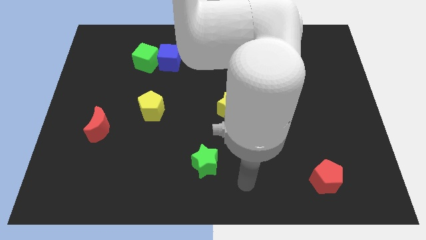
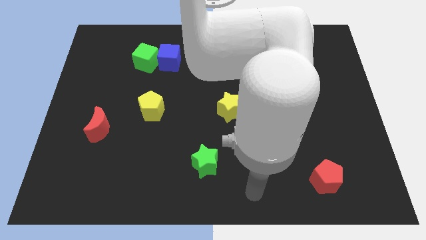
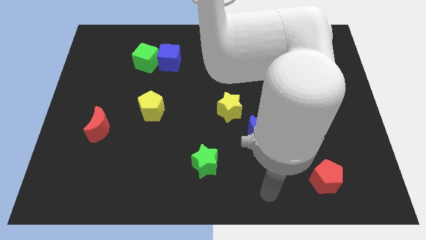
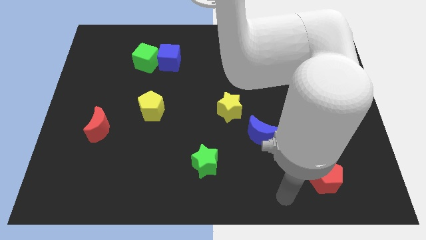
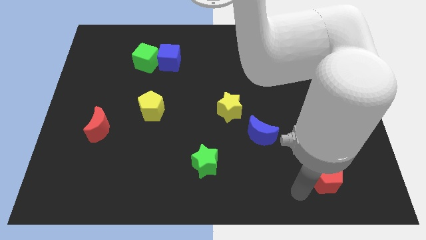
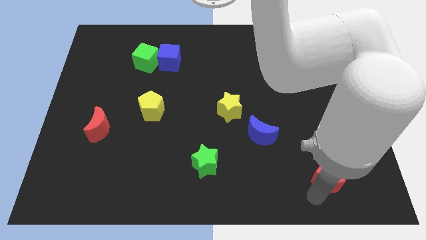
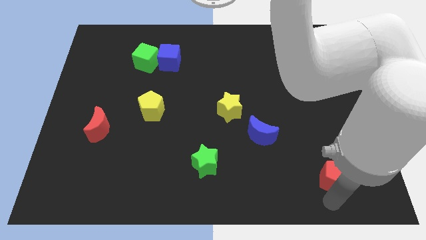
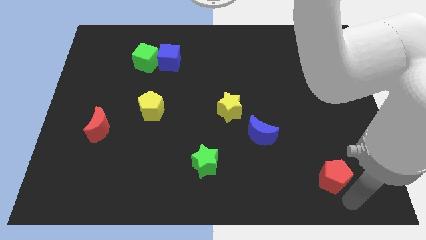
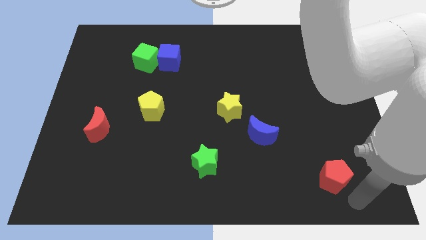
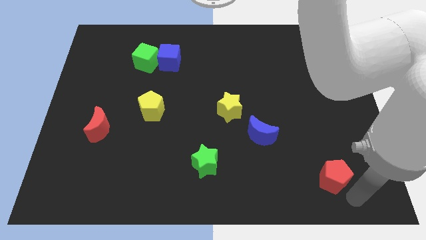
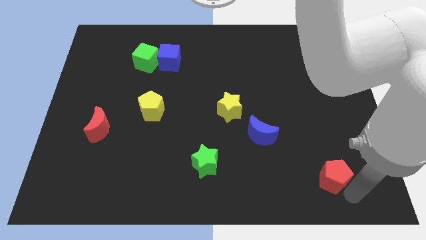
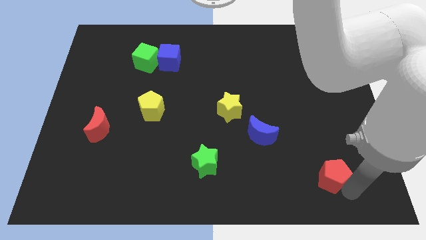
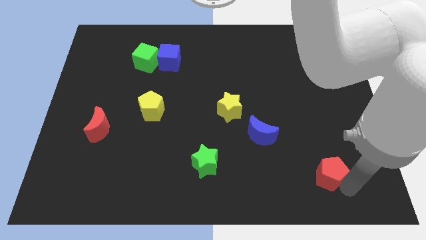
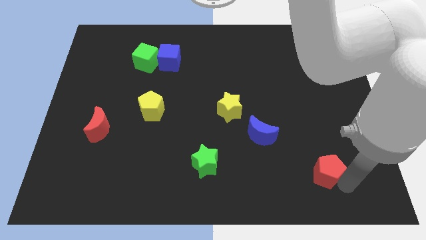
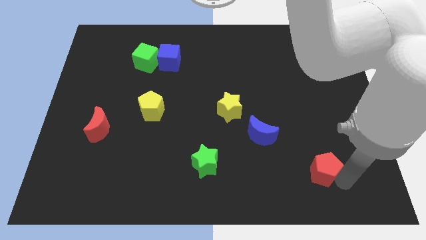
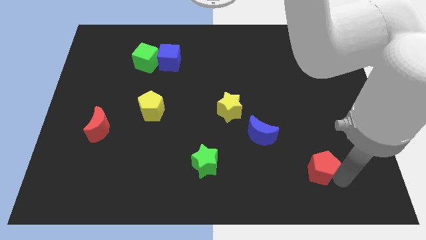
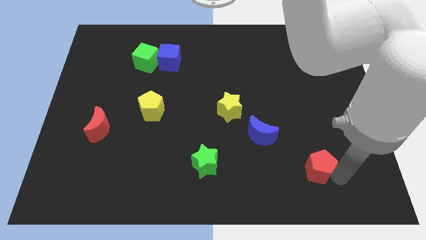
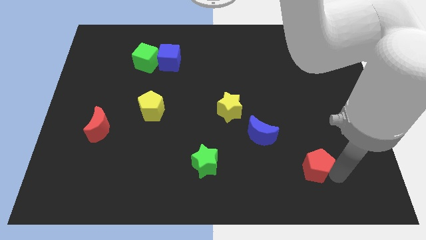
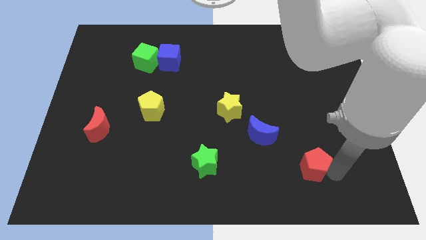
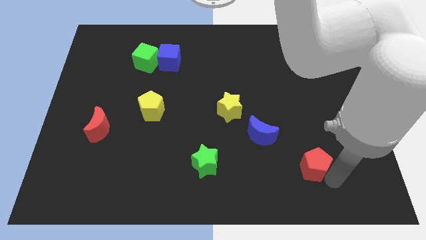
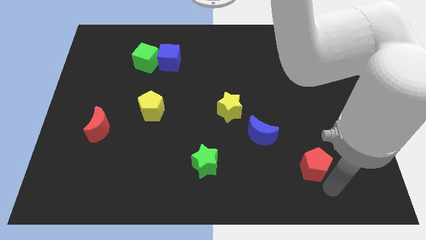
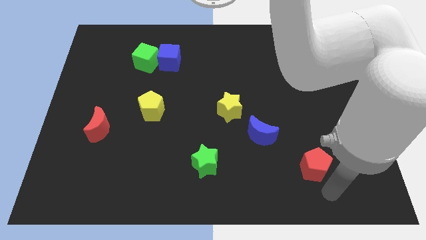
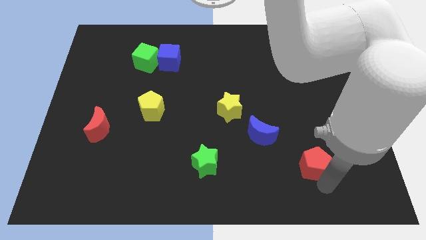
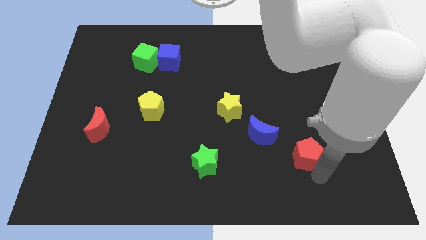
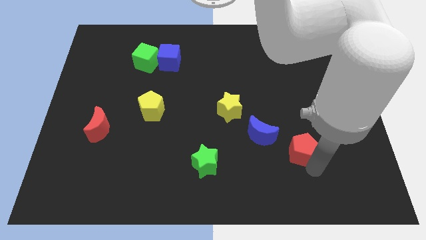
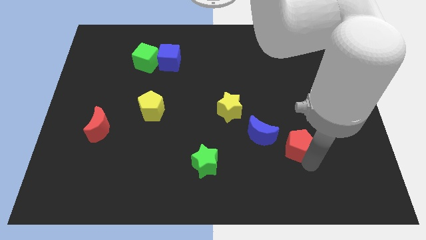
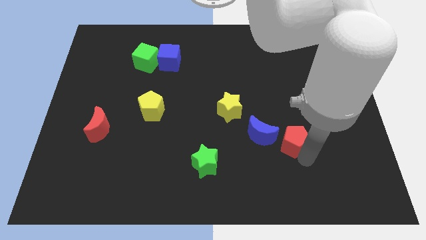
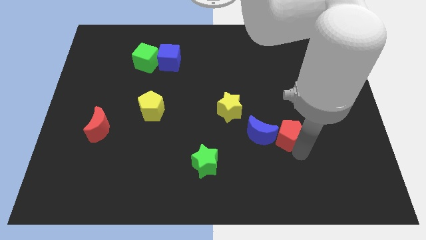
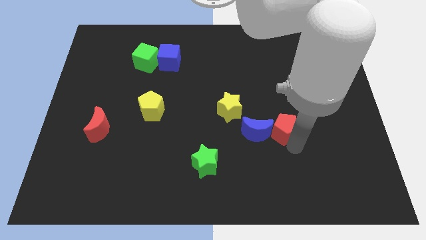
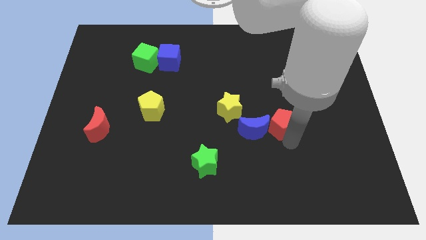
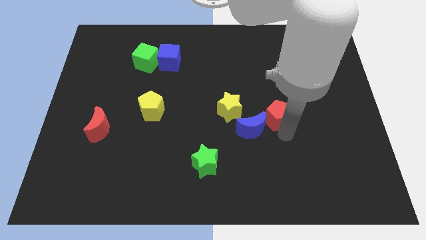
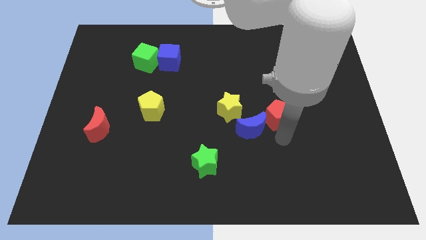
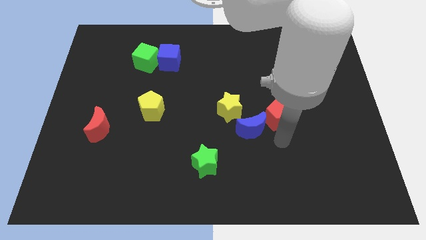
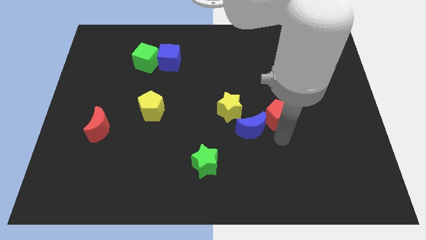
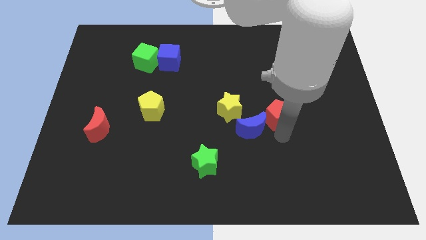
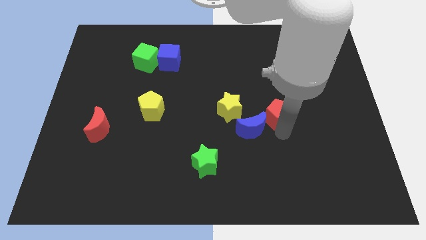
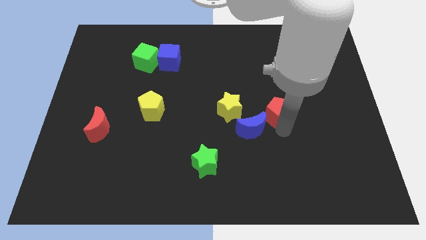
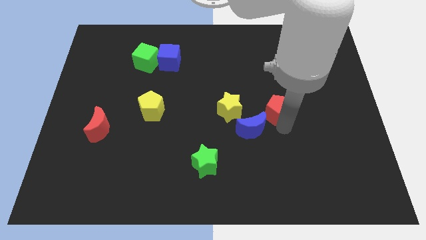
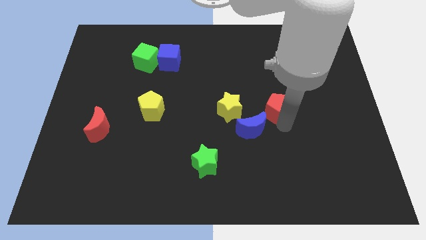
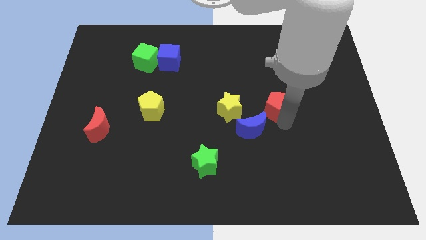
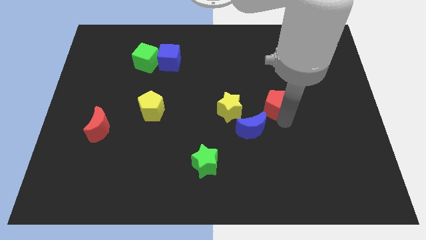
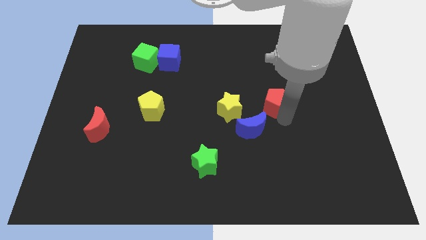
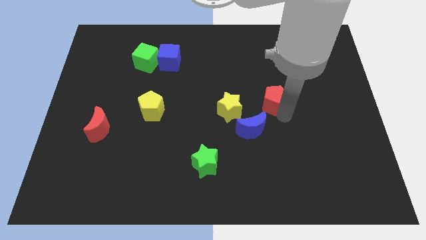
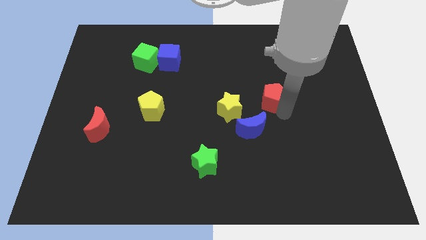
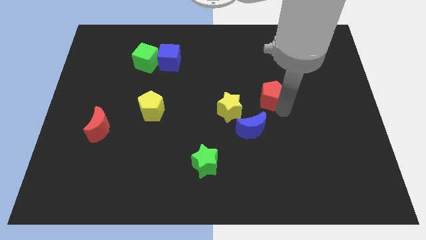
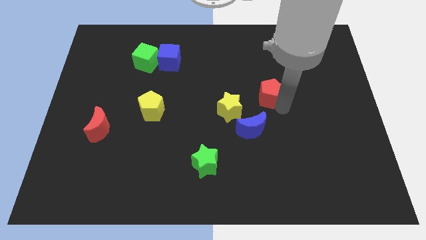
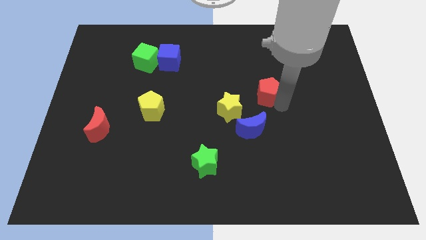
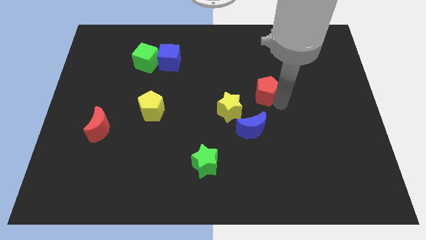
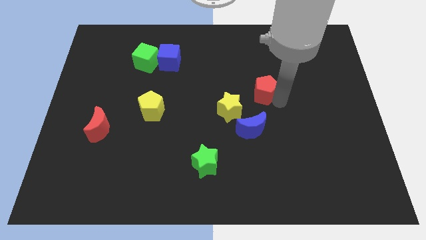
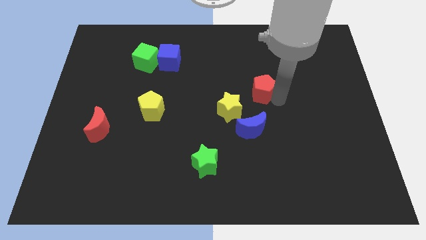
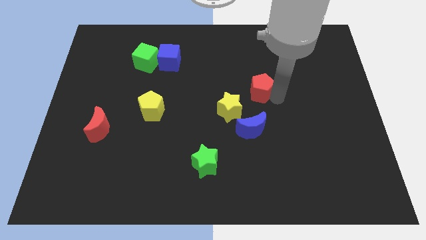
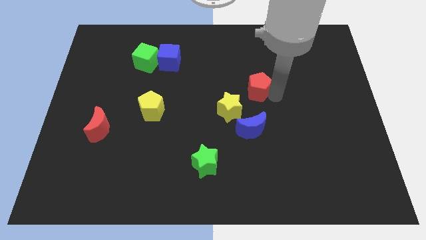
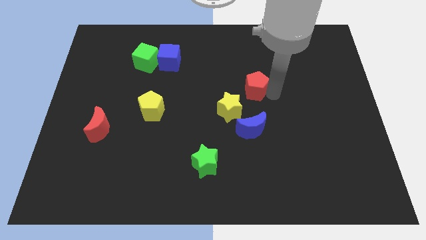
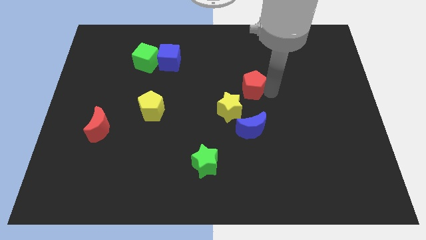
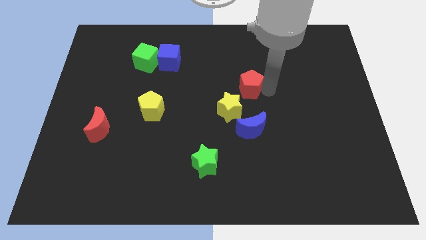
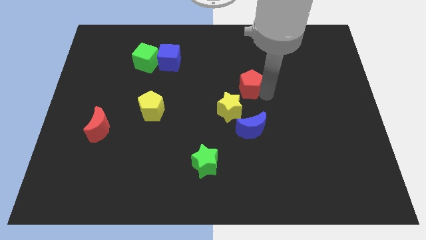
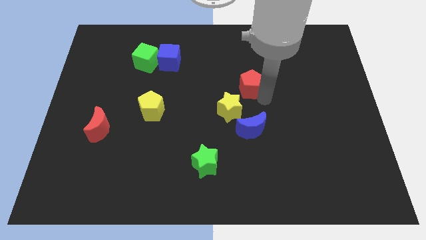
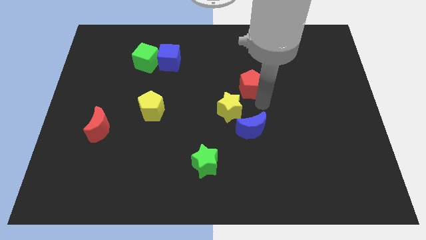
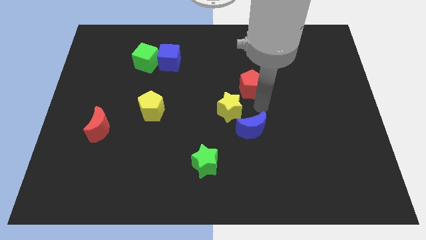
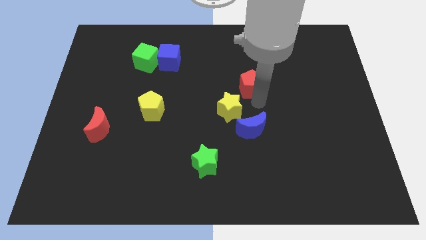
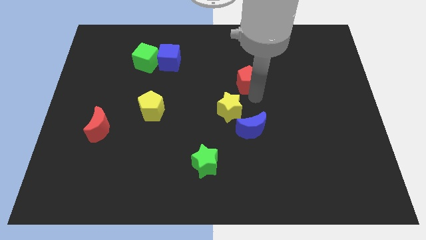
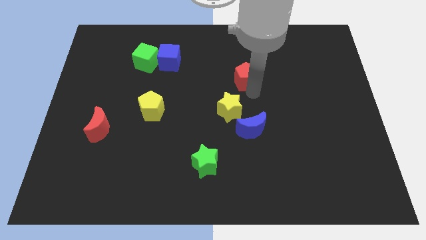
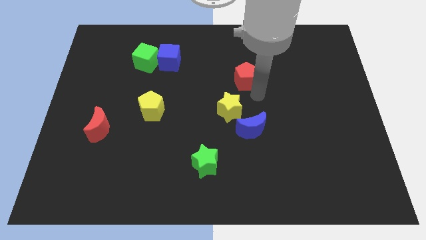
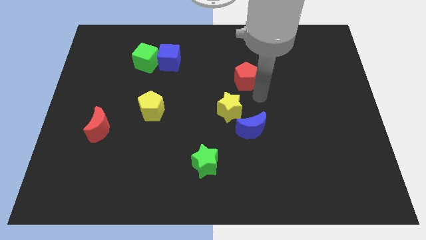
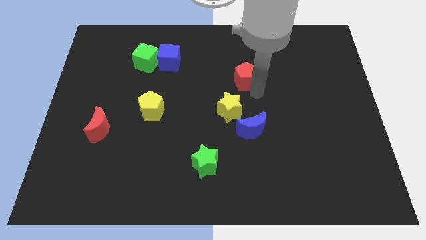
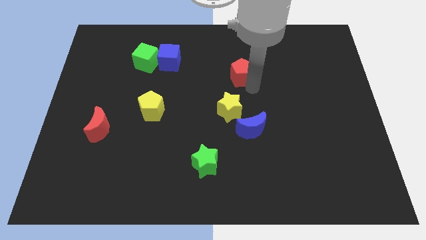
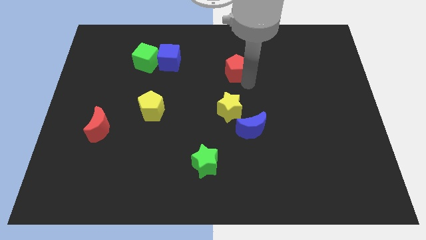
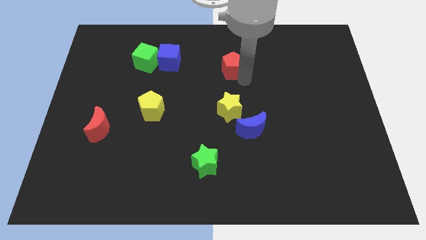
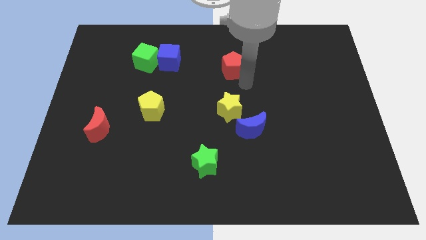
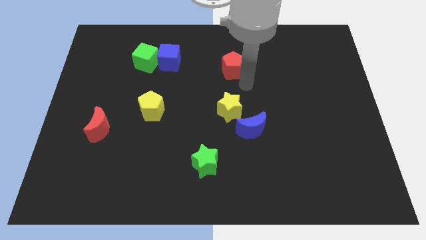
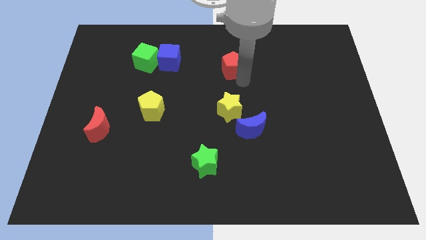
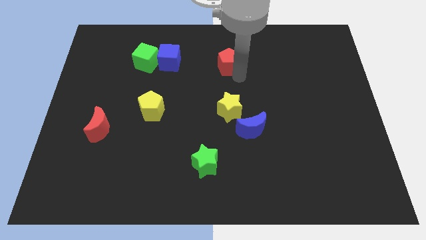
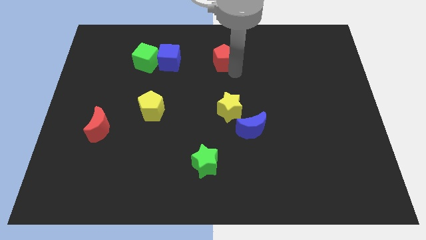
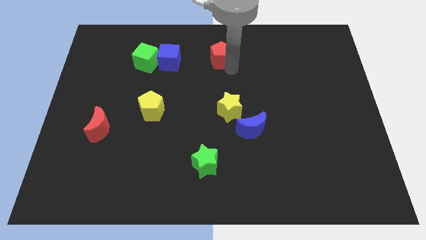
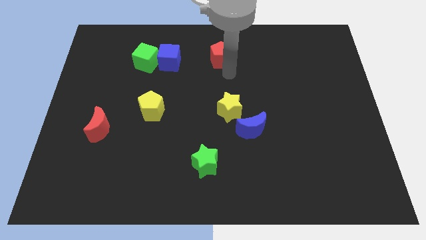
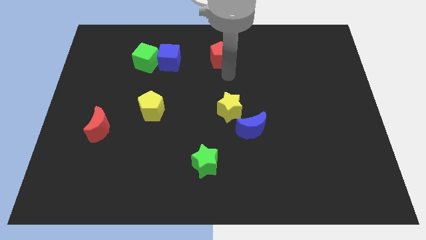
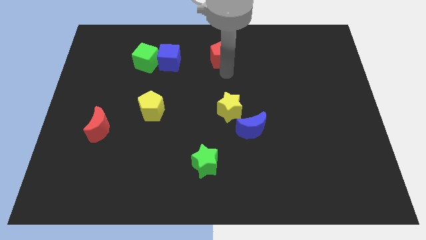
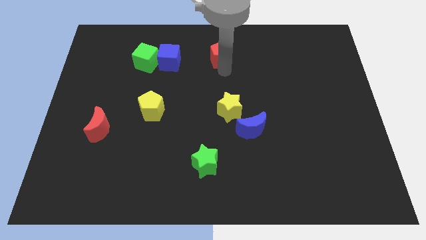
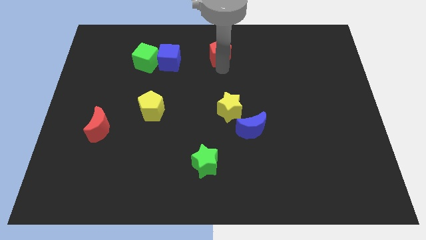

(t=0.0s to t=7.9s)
put the red pentagon to the towards your base
